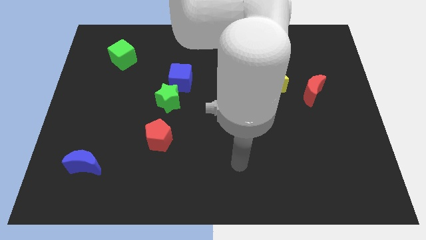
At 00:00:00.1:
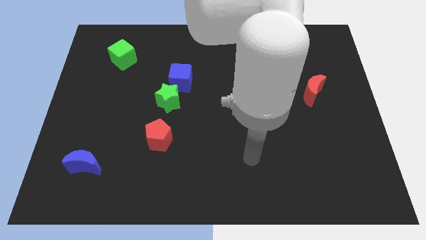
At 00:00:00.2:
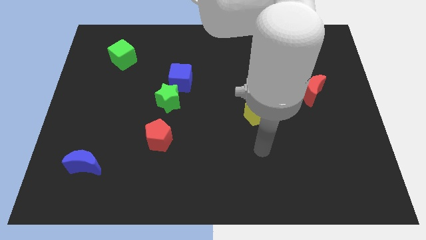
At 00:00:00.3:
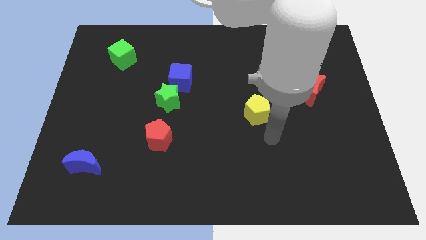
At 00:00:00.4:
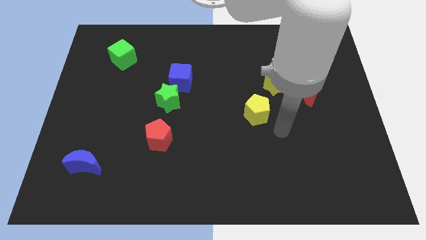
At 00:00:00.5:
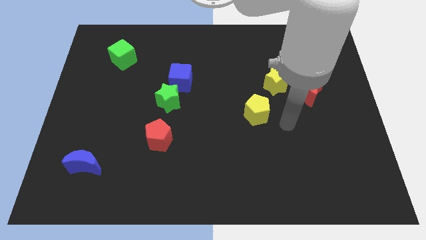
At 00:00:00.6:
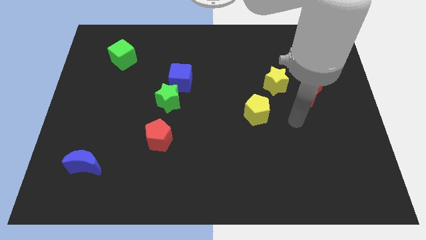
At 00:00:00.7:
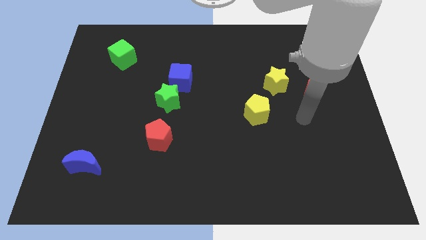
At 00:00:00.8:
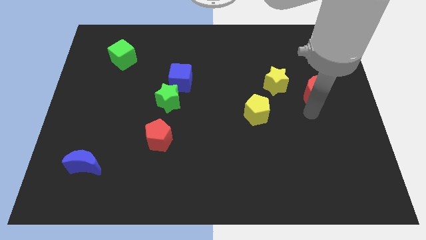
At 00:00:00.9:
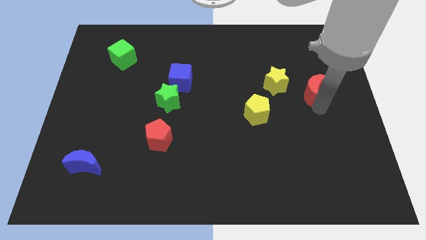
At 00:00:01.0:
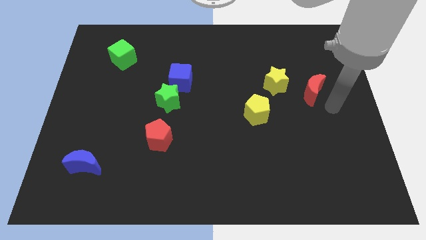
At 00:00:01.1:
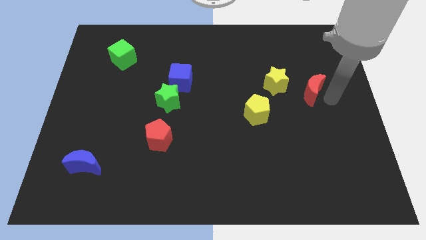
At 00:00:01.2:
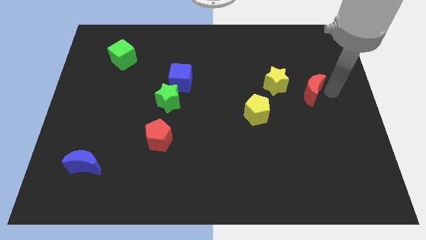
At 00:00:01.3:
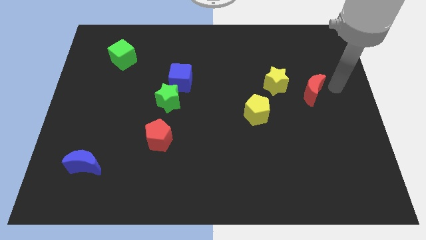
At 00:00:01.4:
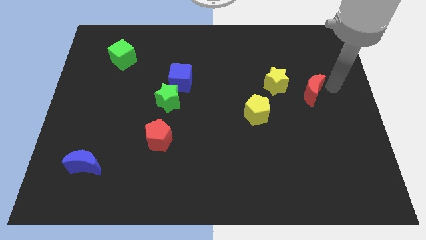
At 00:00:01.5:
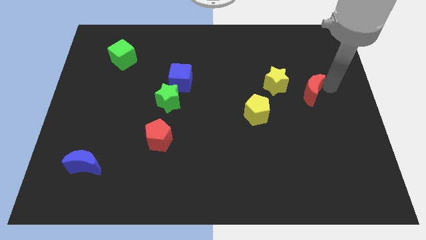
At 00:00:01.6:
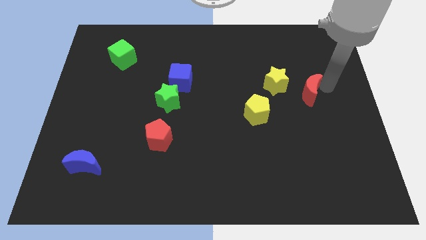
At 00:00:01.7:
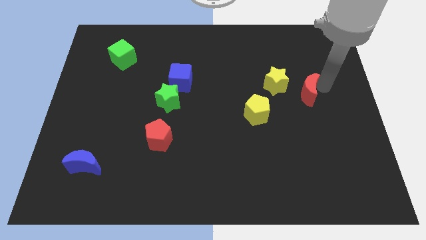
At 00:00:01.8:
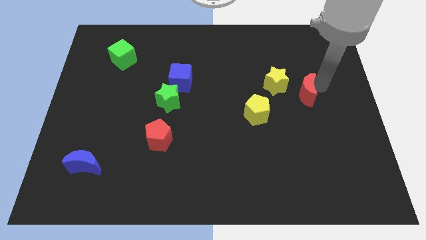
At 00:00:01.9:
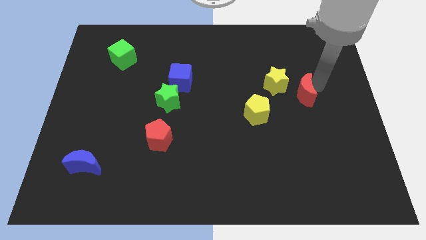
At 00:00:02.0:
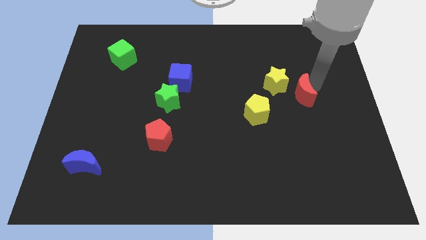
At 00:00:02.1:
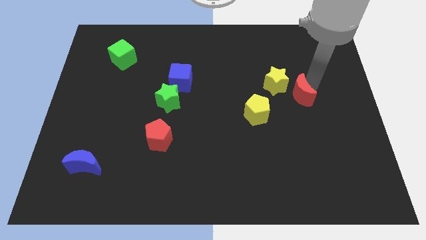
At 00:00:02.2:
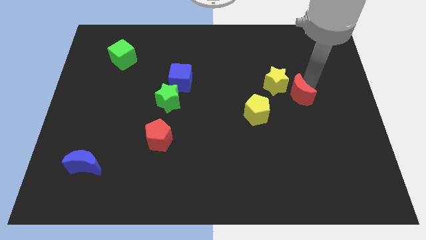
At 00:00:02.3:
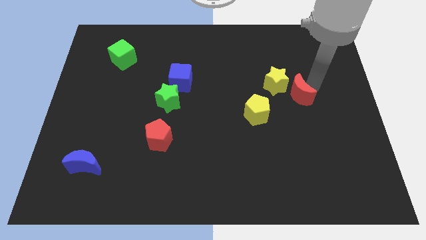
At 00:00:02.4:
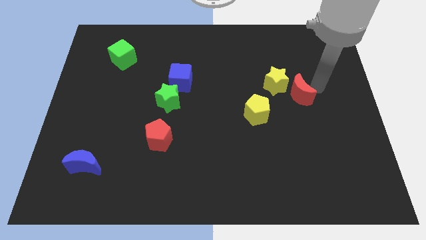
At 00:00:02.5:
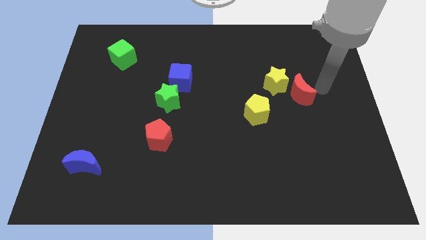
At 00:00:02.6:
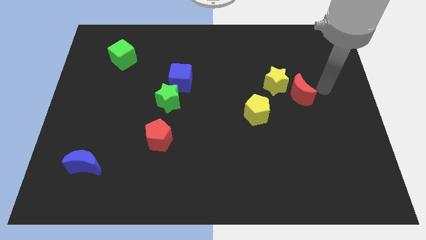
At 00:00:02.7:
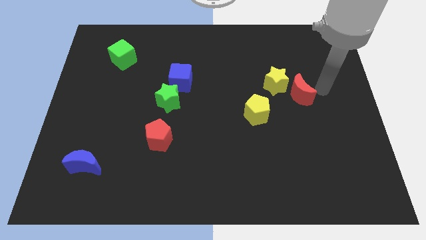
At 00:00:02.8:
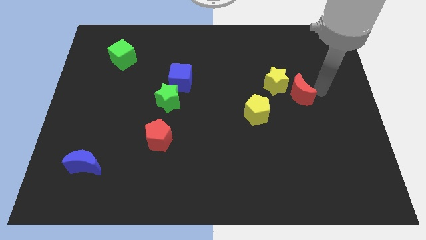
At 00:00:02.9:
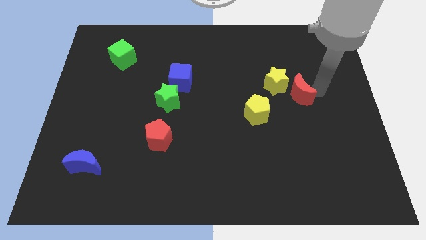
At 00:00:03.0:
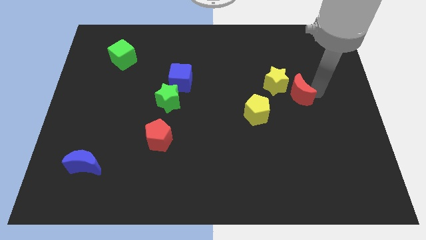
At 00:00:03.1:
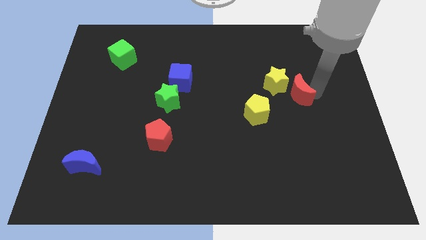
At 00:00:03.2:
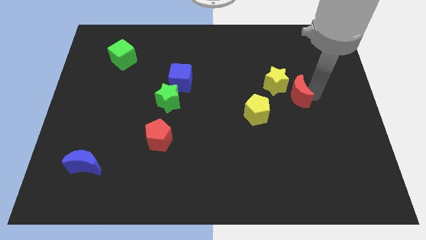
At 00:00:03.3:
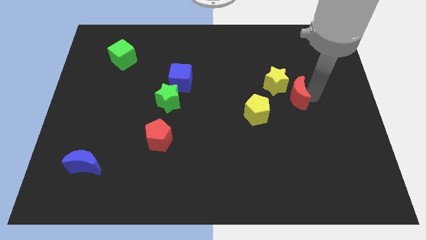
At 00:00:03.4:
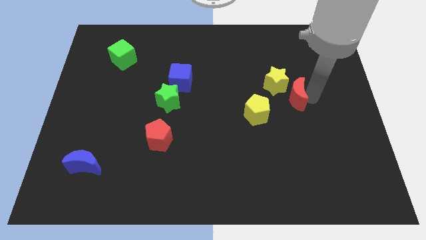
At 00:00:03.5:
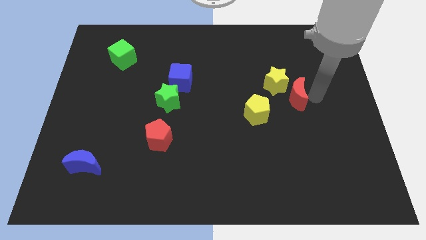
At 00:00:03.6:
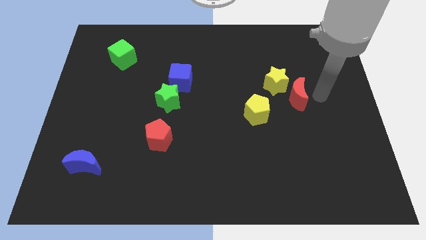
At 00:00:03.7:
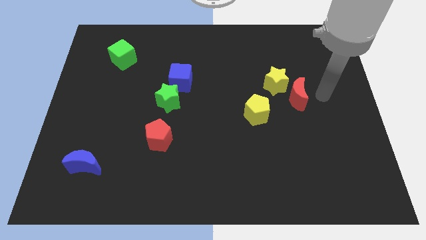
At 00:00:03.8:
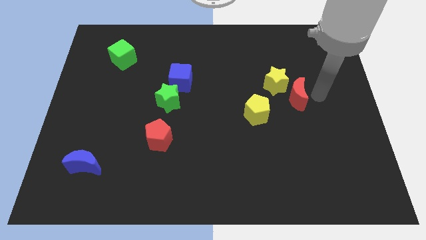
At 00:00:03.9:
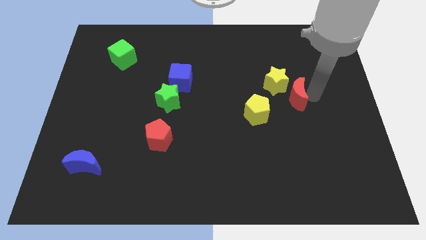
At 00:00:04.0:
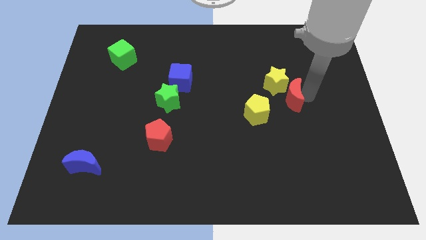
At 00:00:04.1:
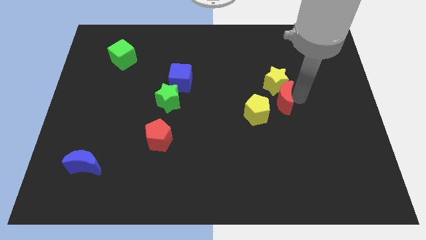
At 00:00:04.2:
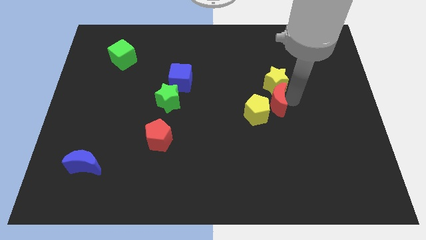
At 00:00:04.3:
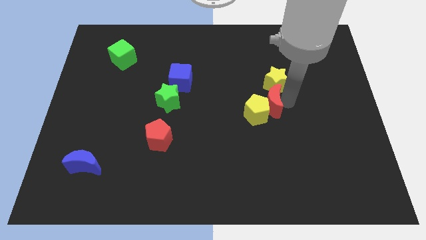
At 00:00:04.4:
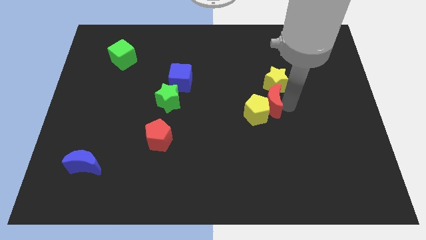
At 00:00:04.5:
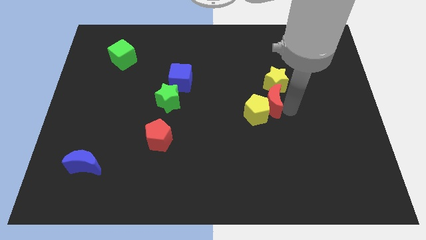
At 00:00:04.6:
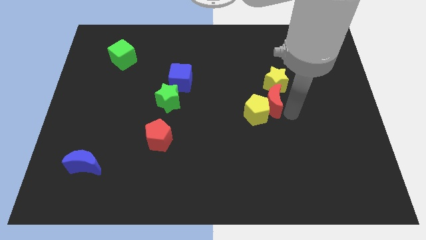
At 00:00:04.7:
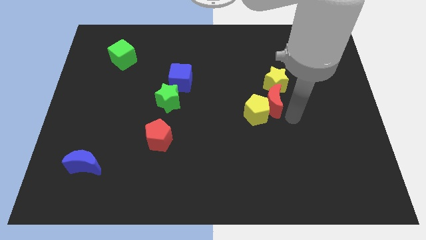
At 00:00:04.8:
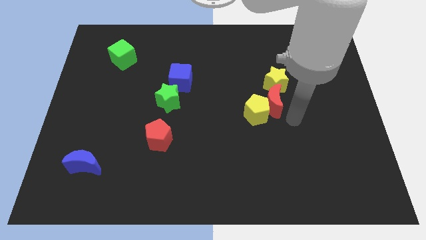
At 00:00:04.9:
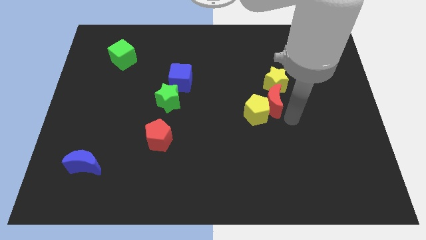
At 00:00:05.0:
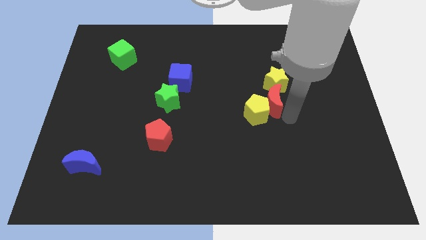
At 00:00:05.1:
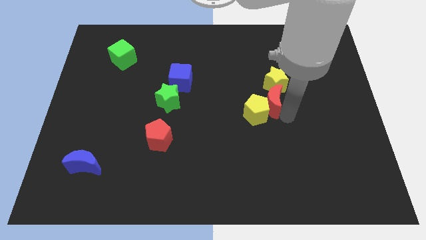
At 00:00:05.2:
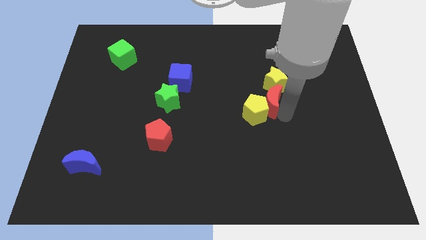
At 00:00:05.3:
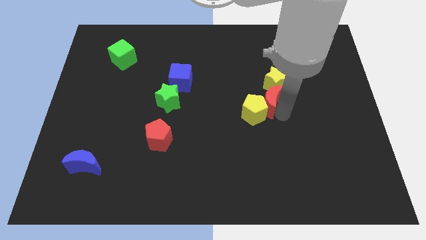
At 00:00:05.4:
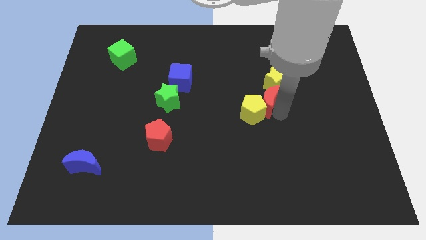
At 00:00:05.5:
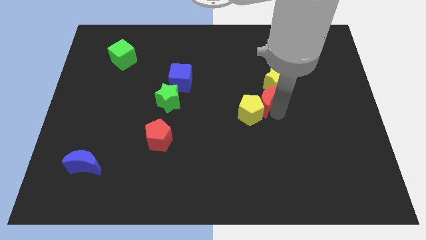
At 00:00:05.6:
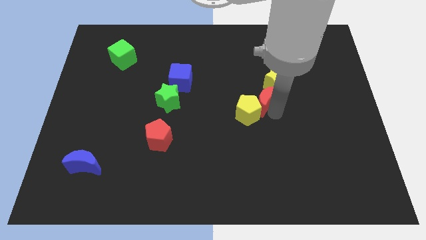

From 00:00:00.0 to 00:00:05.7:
slide the red moon to the middle
